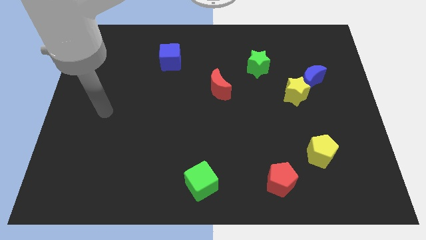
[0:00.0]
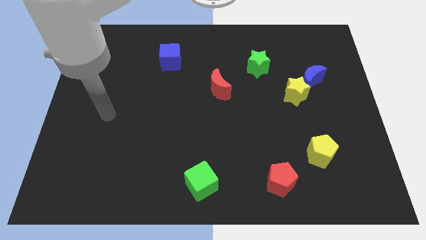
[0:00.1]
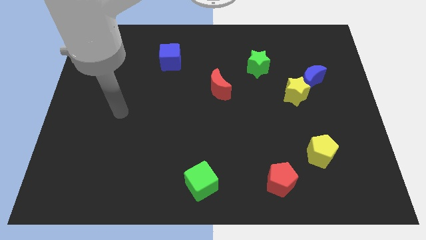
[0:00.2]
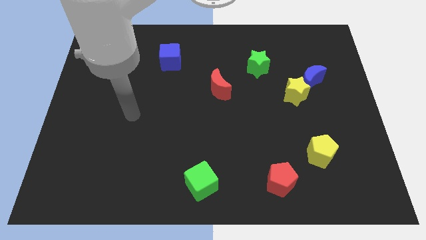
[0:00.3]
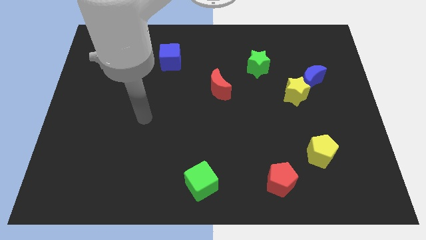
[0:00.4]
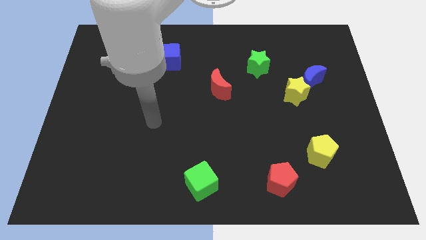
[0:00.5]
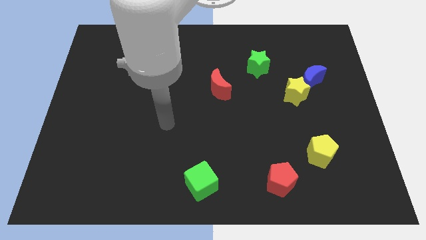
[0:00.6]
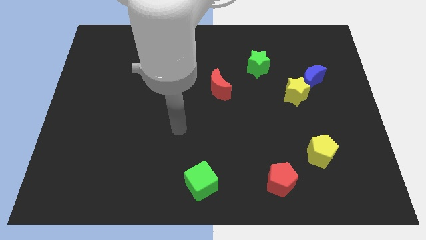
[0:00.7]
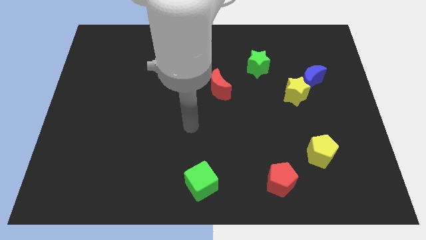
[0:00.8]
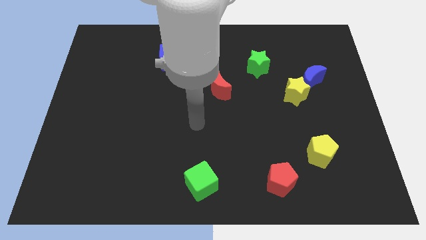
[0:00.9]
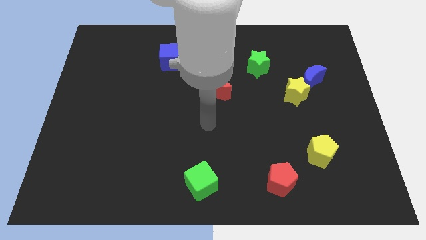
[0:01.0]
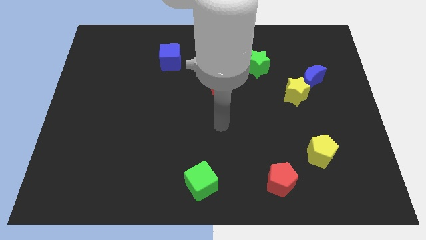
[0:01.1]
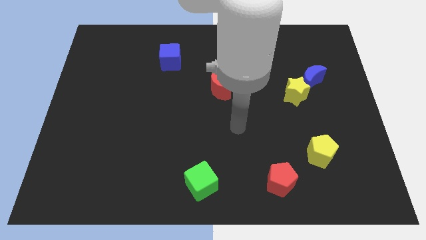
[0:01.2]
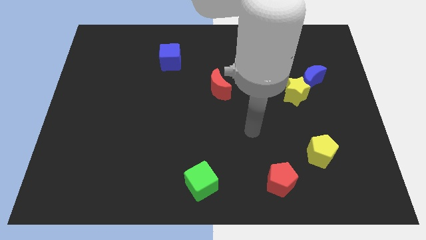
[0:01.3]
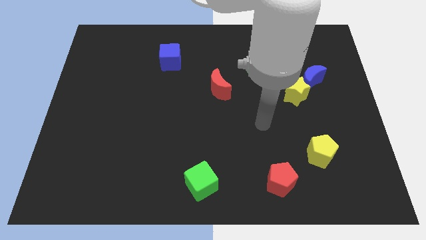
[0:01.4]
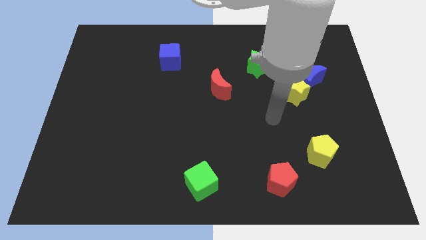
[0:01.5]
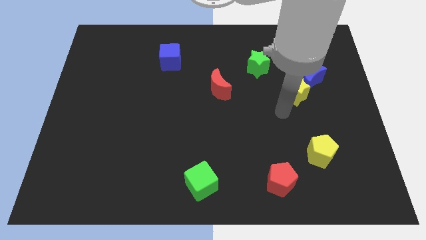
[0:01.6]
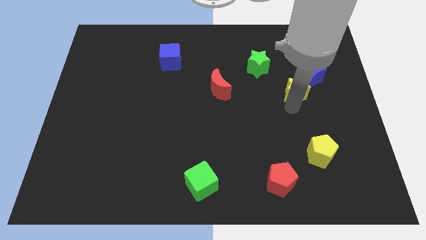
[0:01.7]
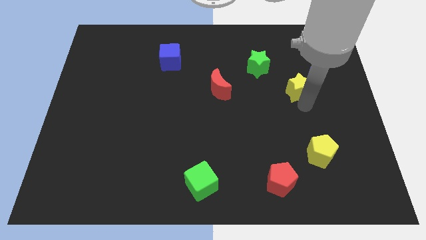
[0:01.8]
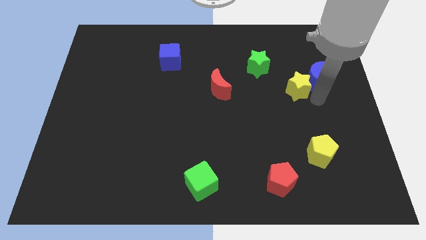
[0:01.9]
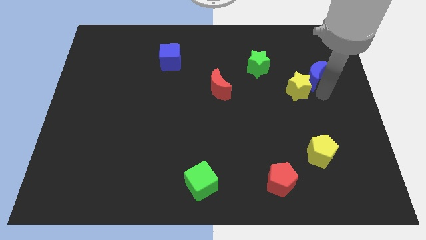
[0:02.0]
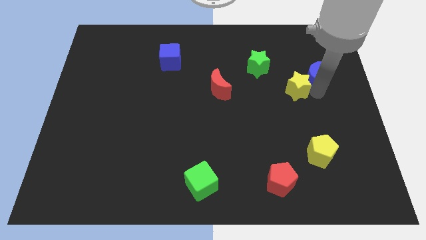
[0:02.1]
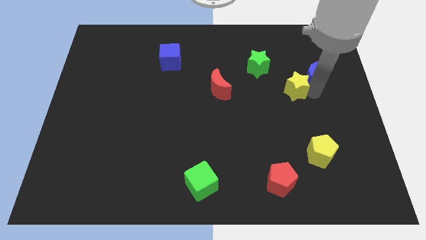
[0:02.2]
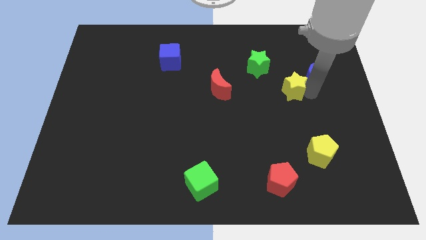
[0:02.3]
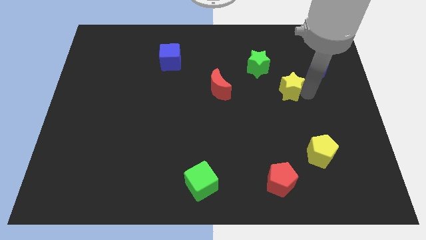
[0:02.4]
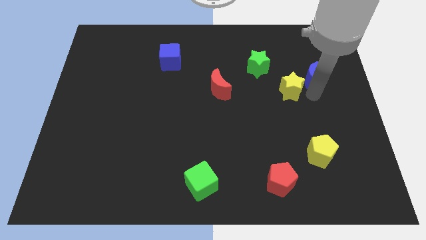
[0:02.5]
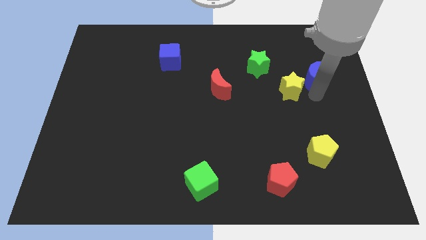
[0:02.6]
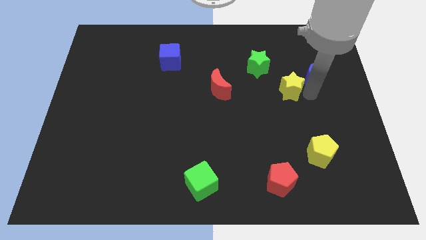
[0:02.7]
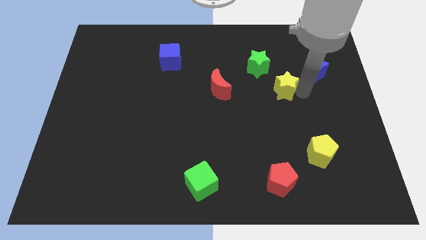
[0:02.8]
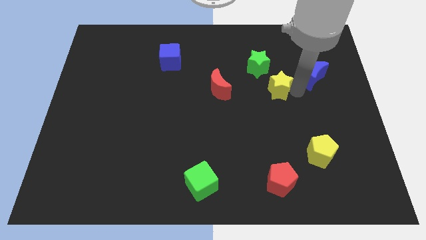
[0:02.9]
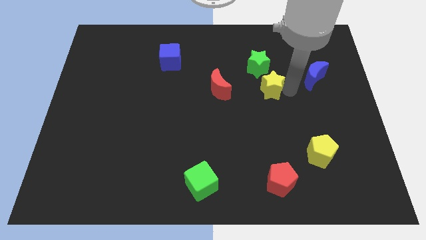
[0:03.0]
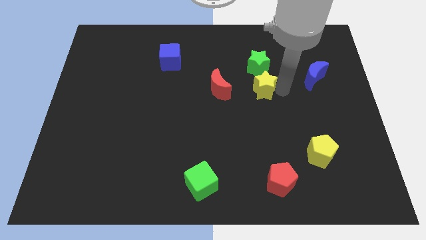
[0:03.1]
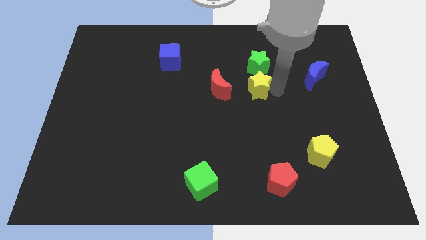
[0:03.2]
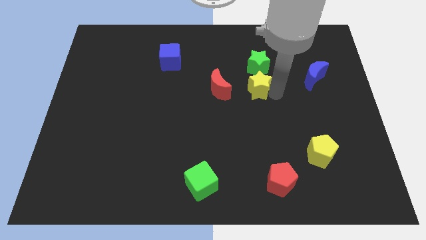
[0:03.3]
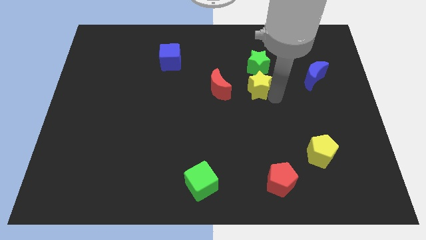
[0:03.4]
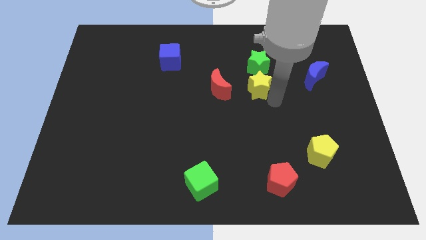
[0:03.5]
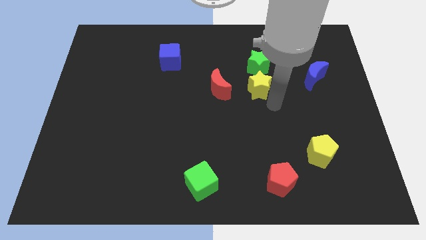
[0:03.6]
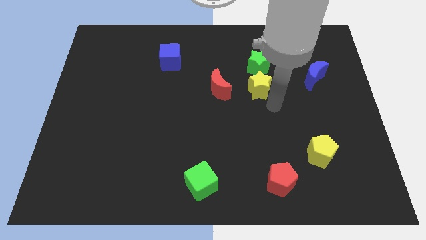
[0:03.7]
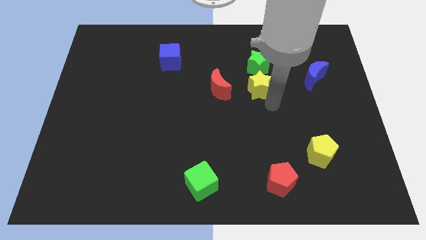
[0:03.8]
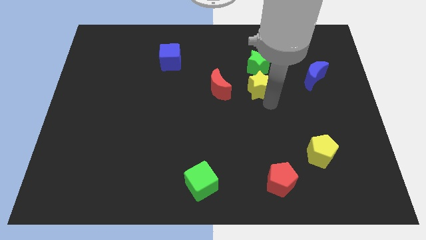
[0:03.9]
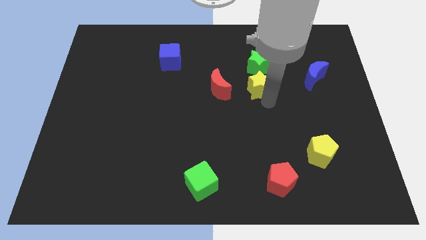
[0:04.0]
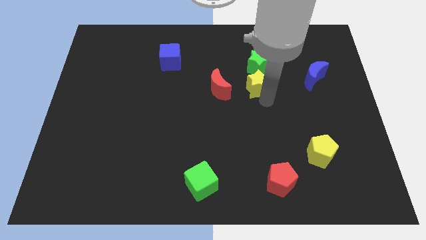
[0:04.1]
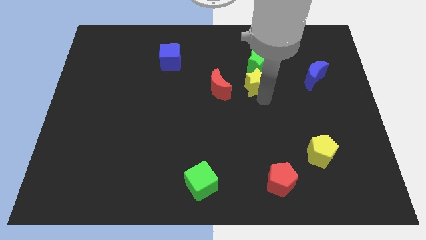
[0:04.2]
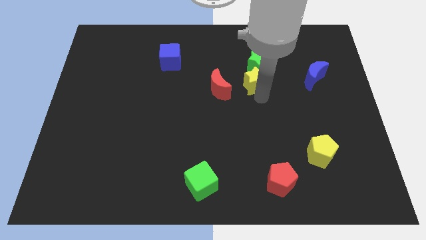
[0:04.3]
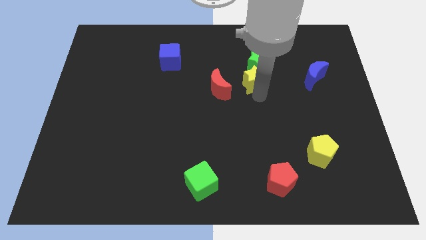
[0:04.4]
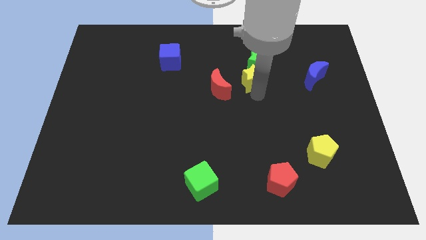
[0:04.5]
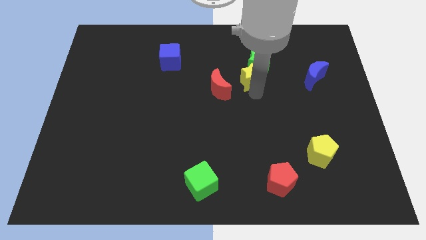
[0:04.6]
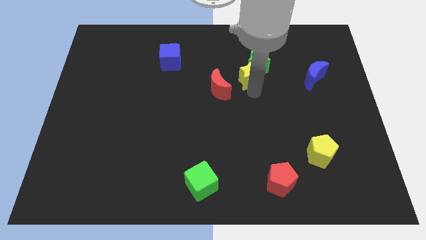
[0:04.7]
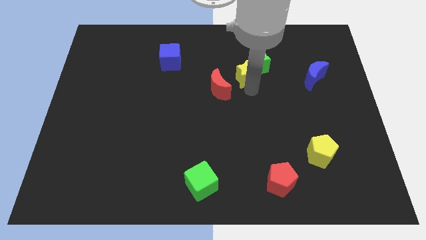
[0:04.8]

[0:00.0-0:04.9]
put the yellow star to the left of the green star

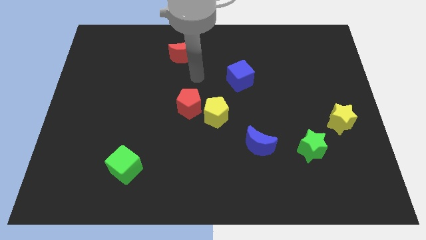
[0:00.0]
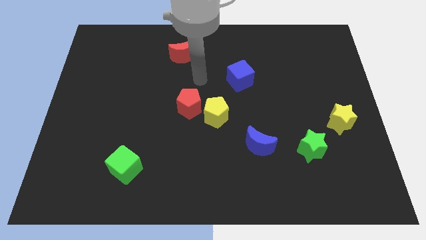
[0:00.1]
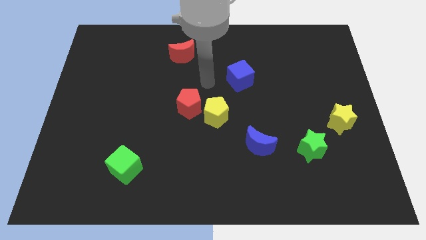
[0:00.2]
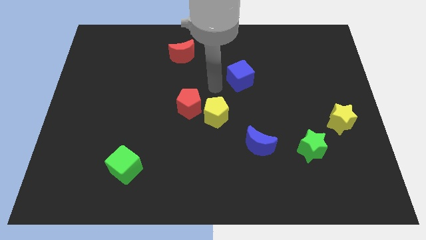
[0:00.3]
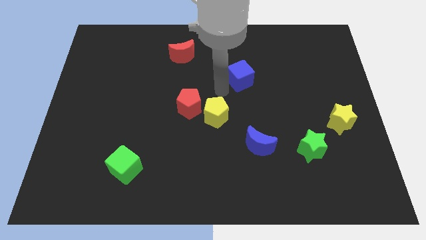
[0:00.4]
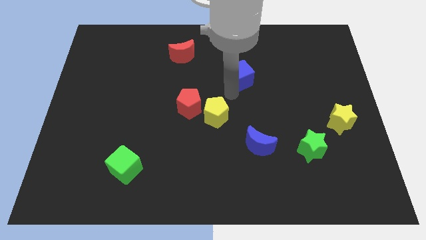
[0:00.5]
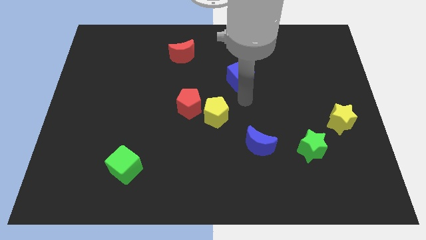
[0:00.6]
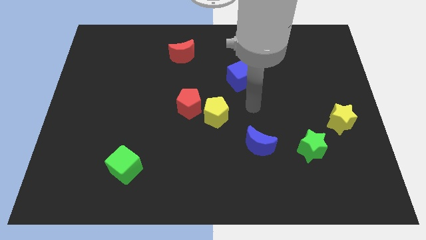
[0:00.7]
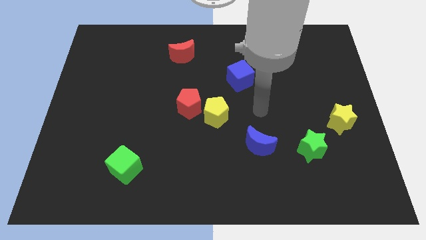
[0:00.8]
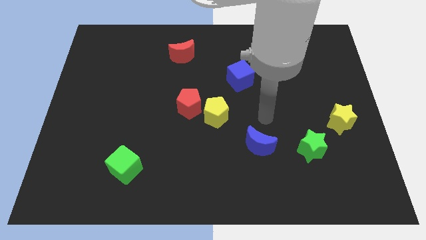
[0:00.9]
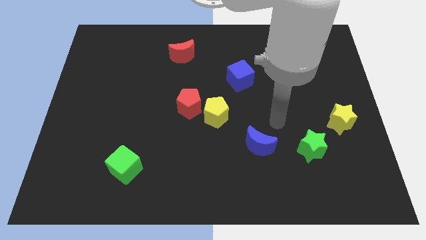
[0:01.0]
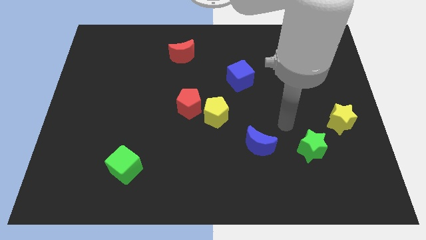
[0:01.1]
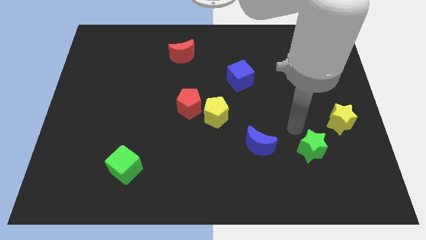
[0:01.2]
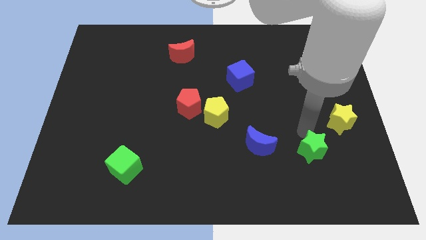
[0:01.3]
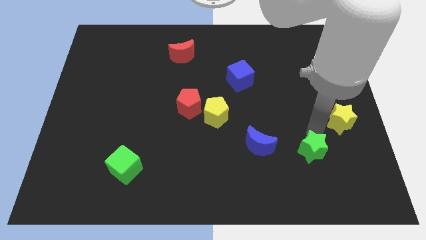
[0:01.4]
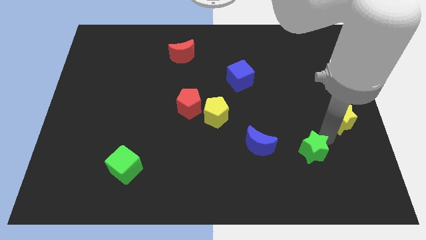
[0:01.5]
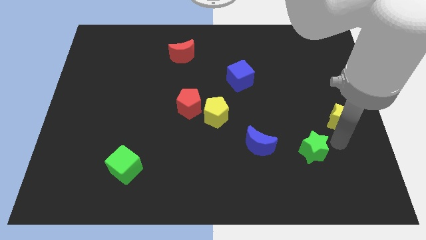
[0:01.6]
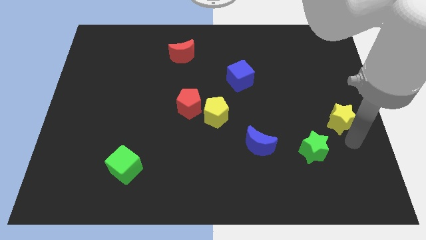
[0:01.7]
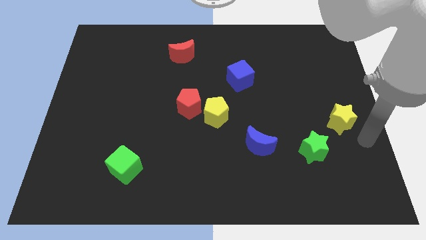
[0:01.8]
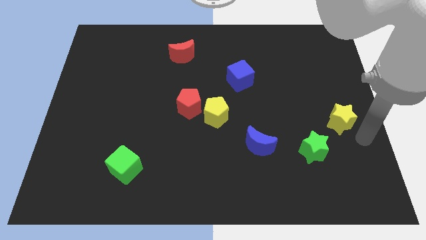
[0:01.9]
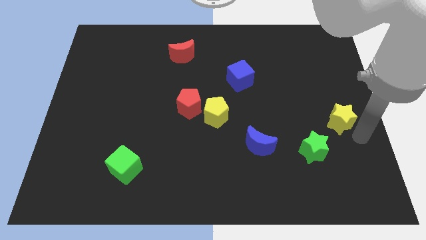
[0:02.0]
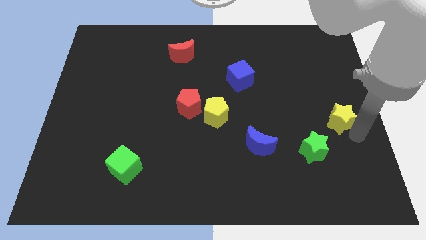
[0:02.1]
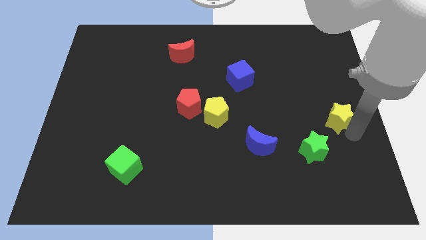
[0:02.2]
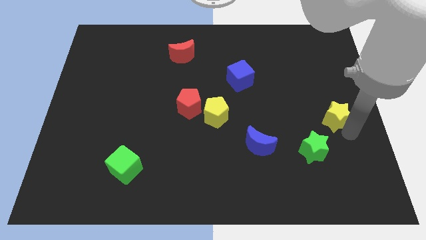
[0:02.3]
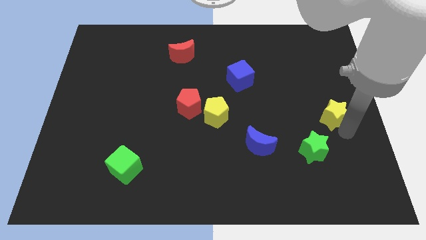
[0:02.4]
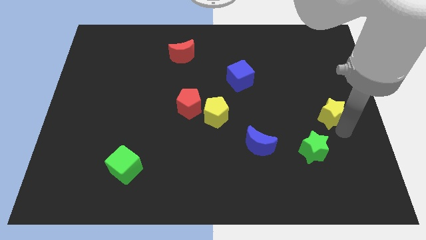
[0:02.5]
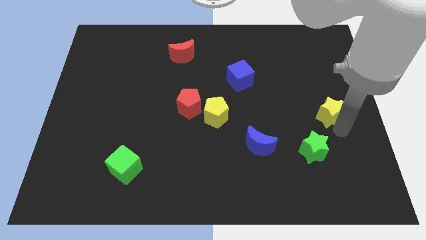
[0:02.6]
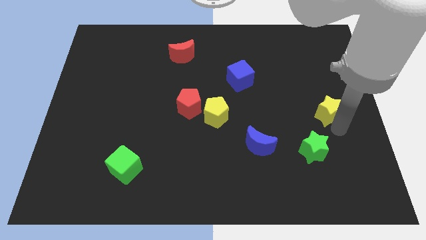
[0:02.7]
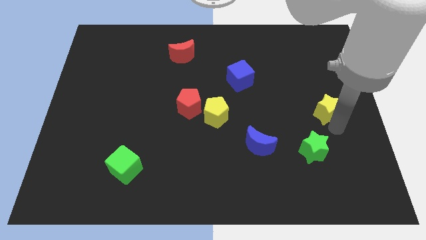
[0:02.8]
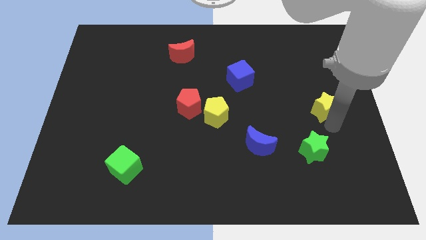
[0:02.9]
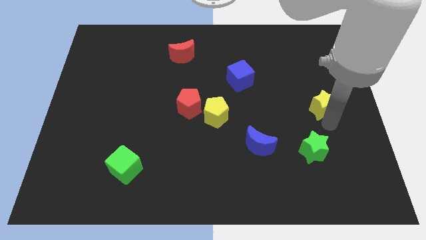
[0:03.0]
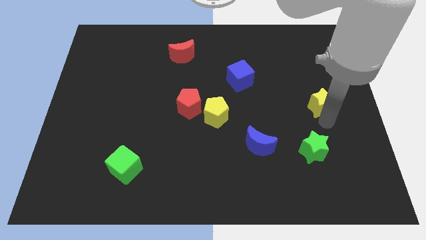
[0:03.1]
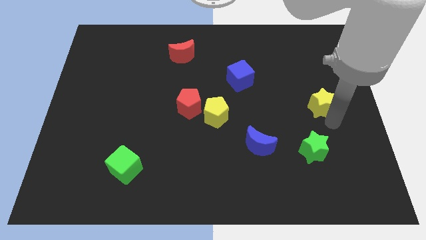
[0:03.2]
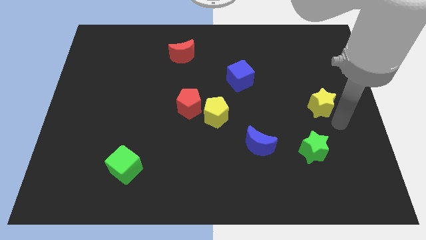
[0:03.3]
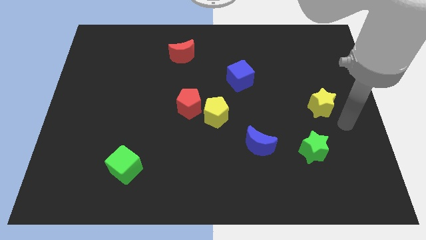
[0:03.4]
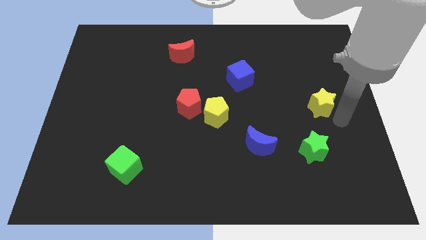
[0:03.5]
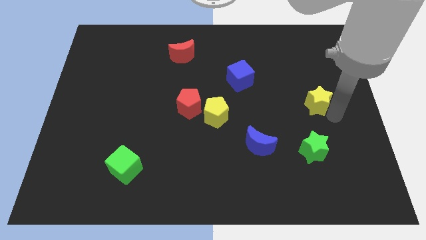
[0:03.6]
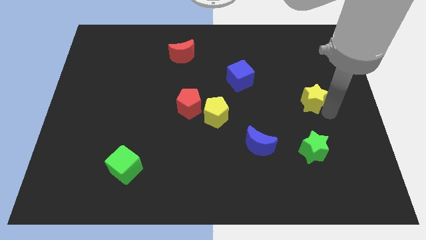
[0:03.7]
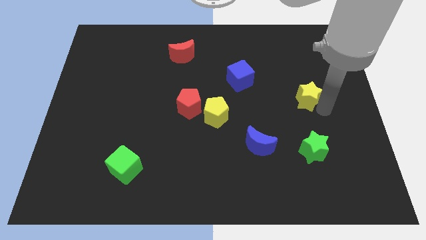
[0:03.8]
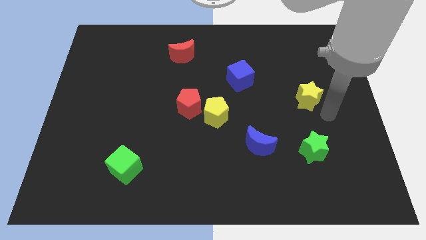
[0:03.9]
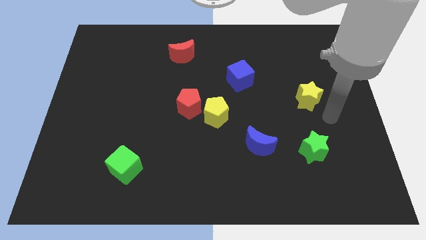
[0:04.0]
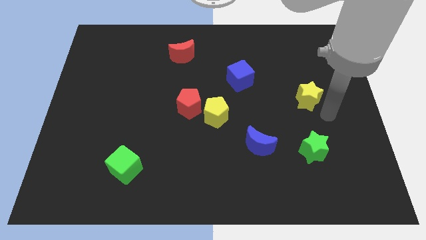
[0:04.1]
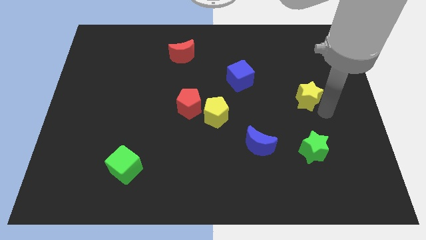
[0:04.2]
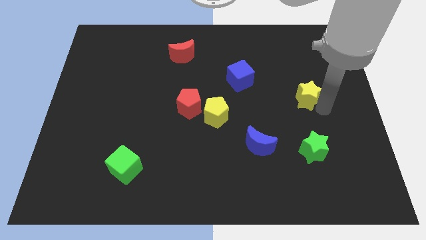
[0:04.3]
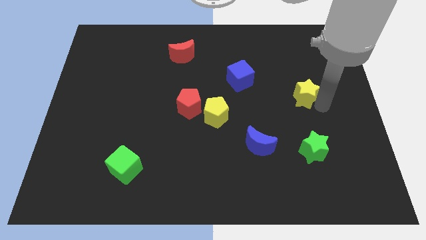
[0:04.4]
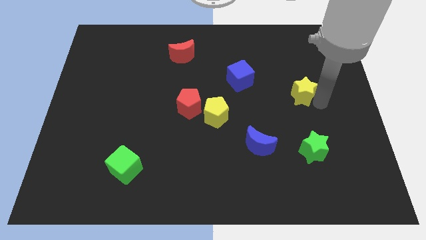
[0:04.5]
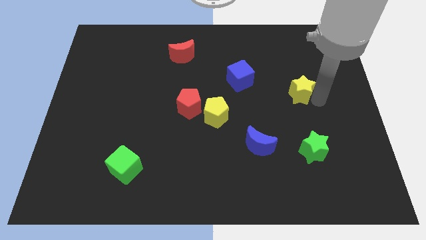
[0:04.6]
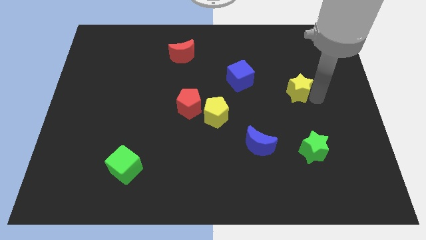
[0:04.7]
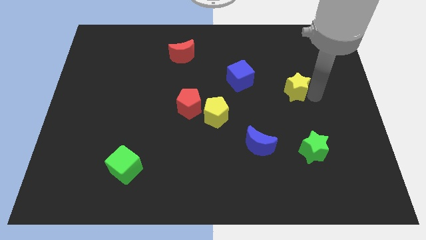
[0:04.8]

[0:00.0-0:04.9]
put the yellow star to the right of the blue cube
